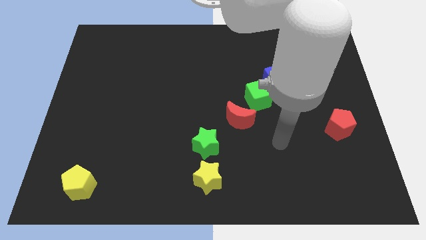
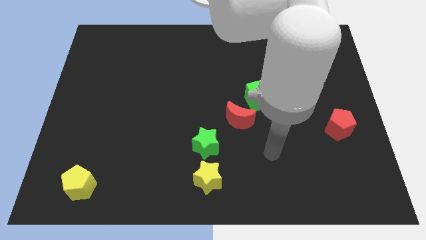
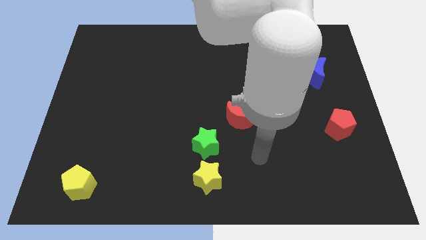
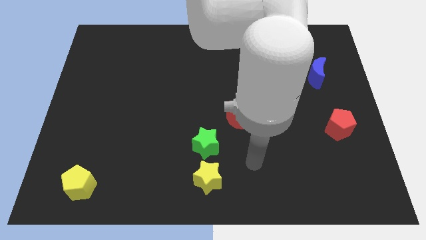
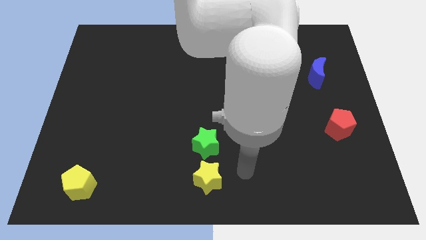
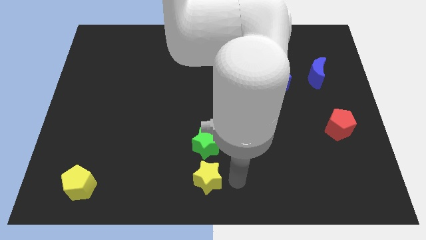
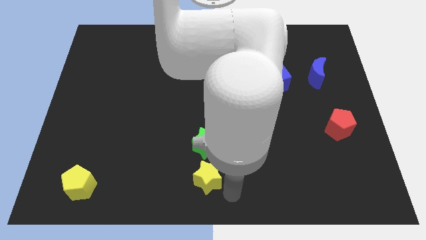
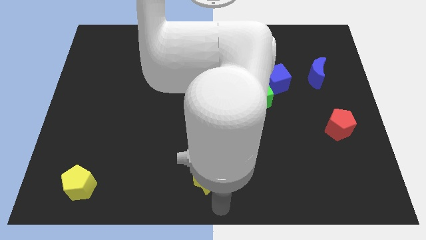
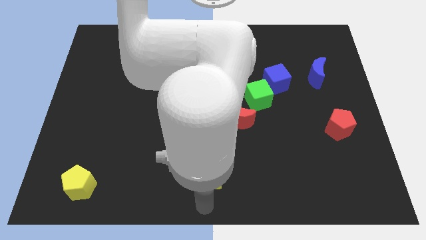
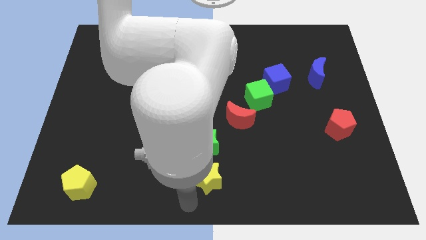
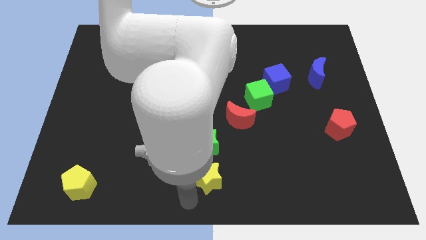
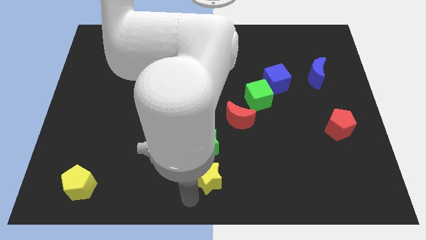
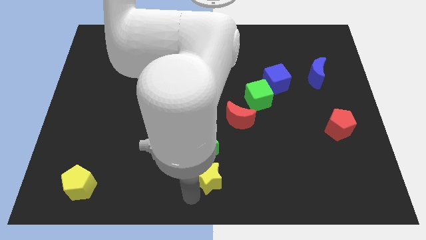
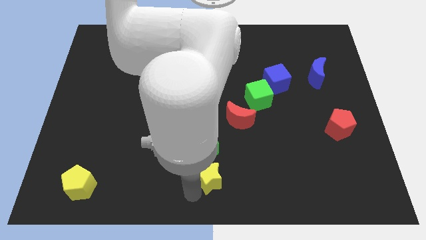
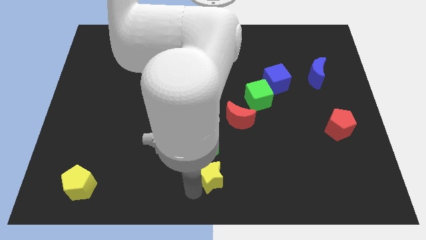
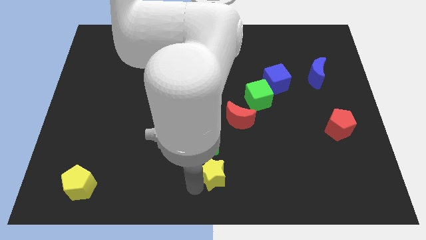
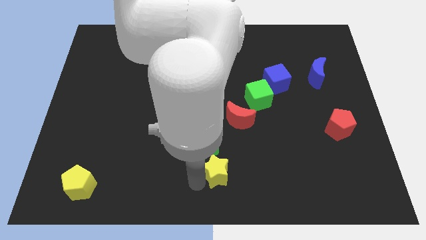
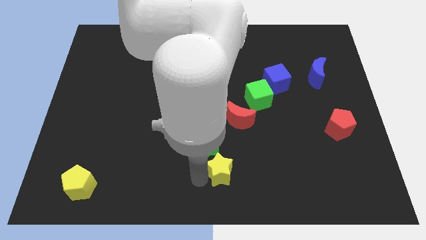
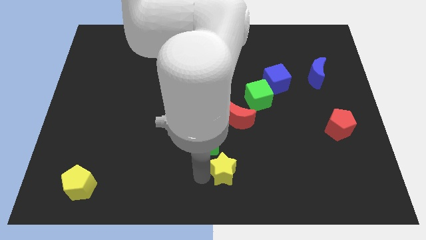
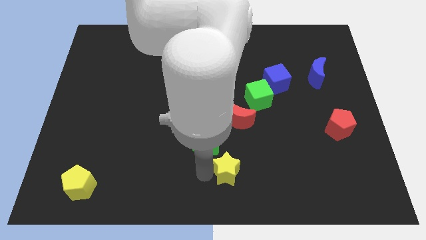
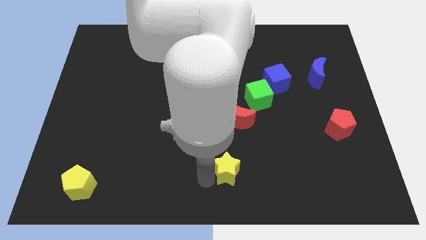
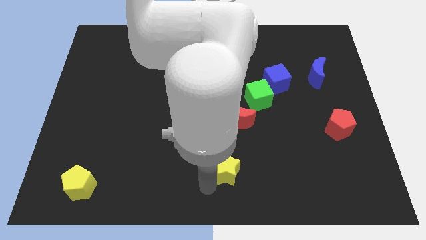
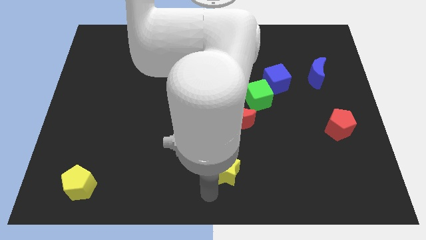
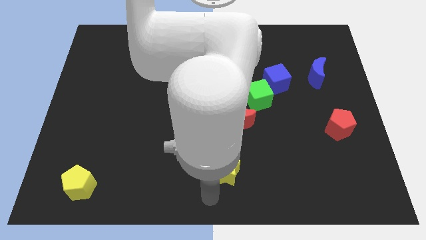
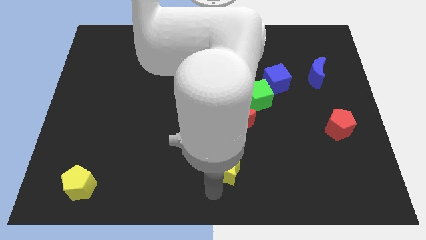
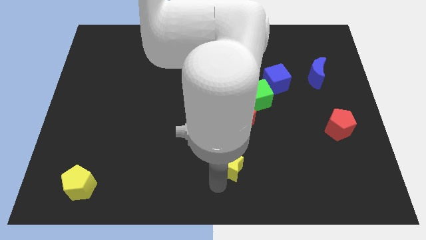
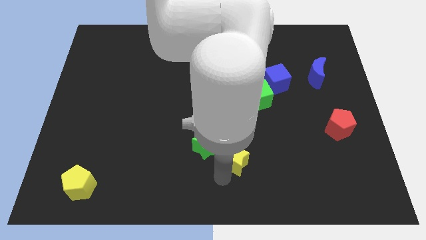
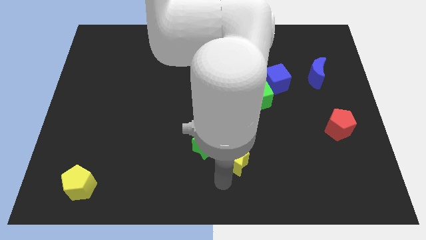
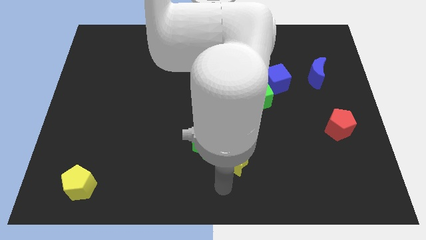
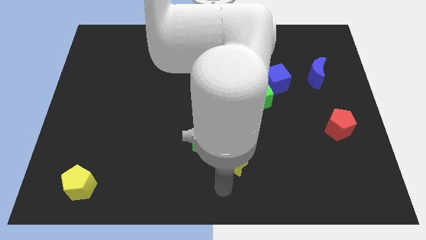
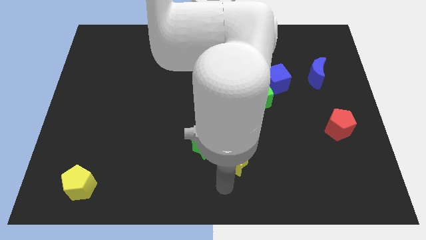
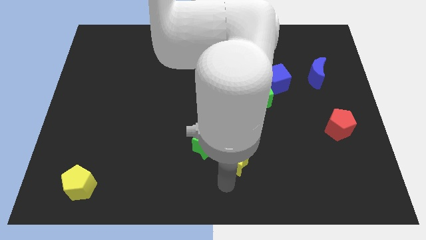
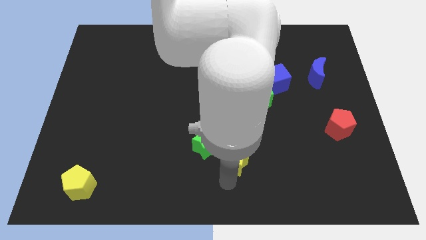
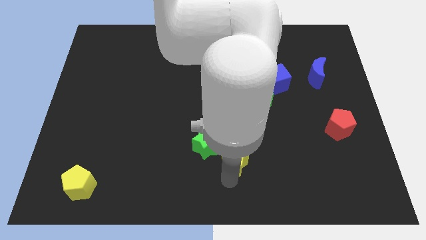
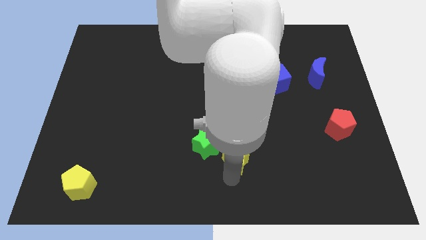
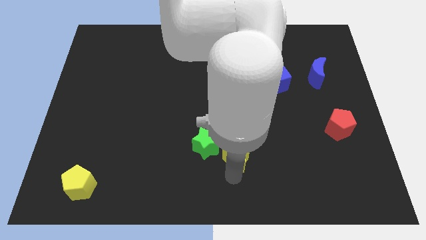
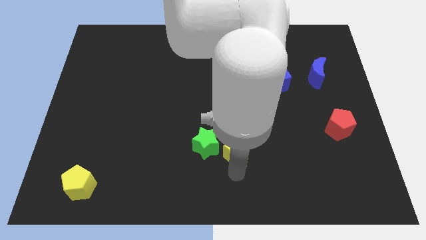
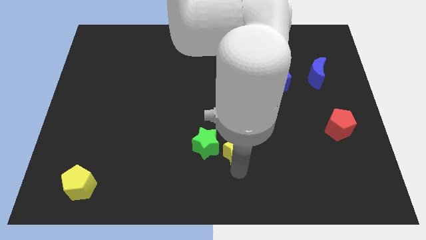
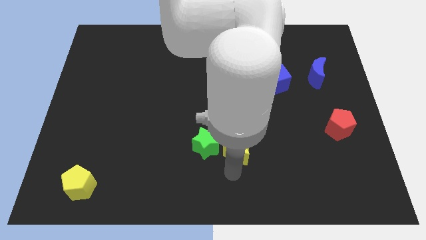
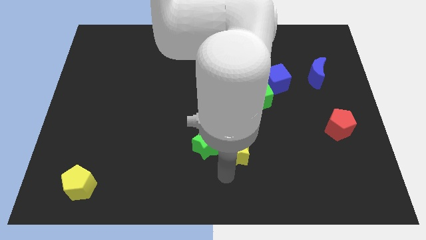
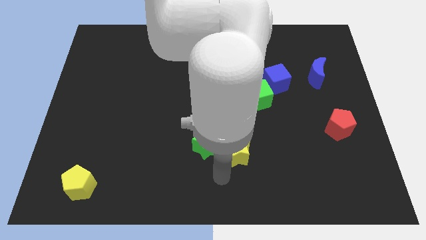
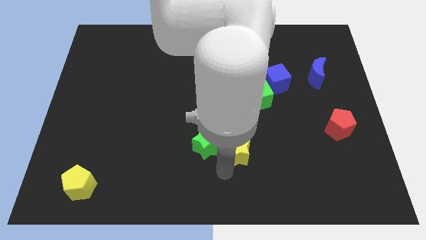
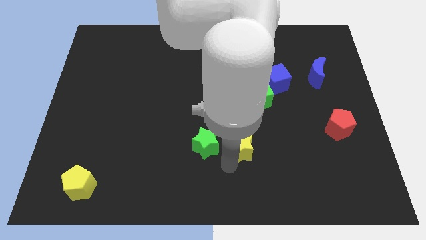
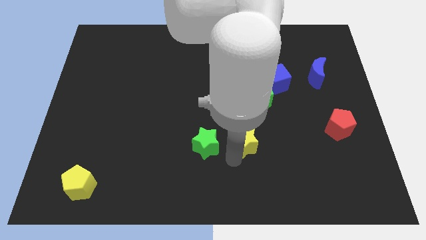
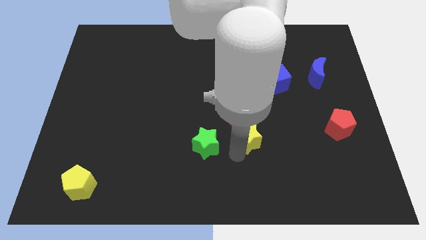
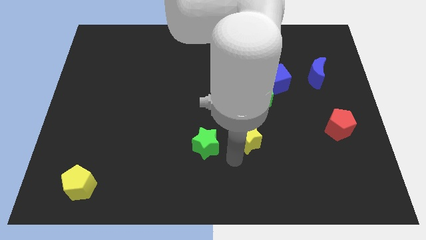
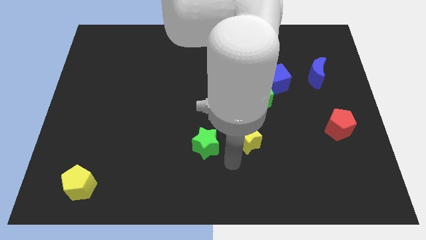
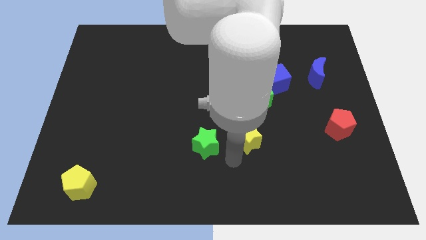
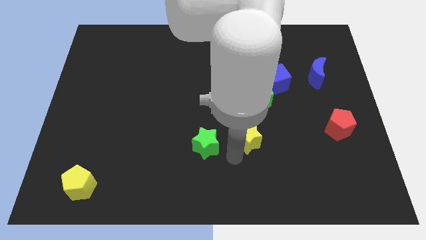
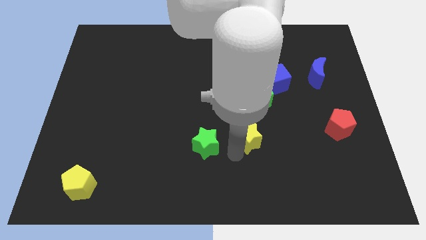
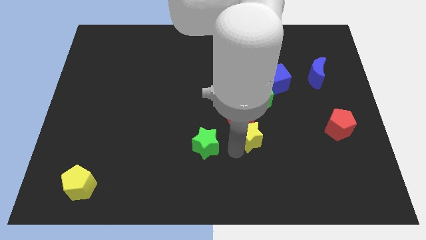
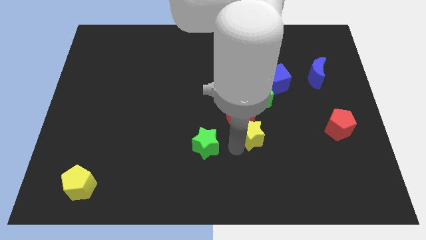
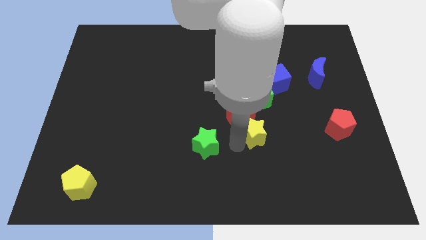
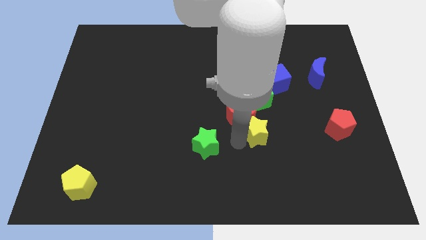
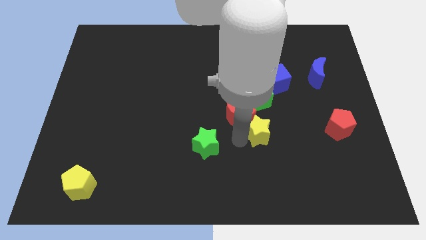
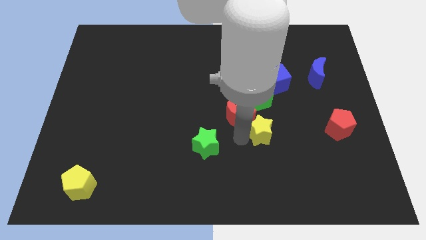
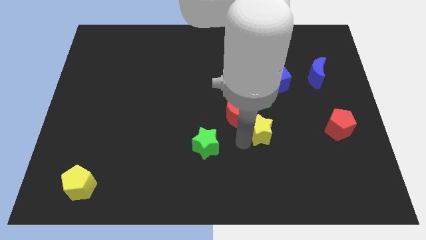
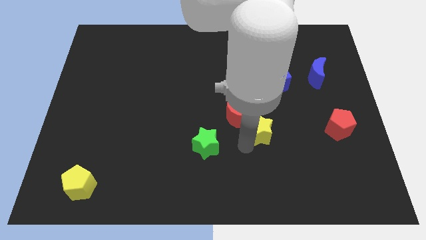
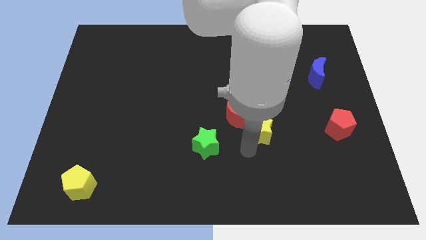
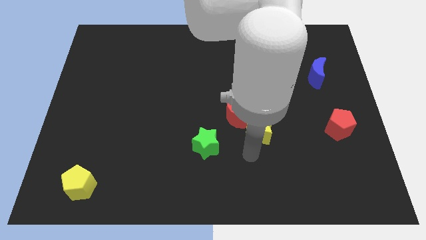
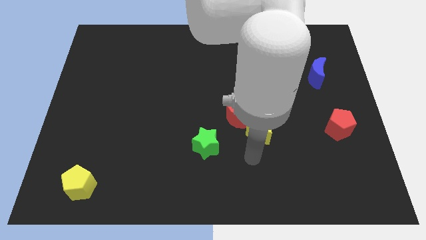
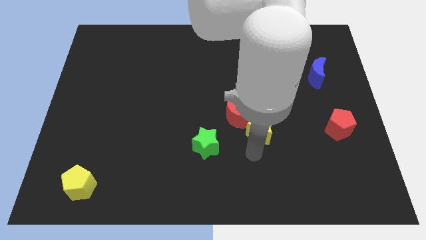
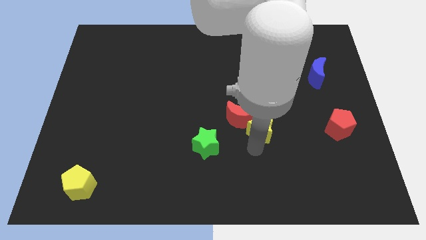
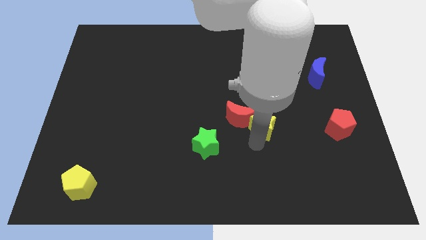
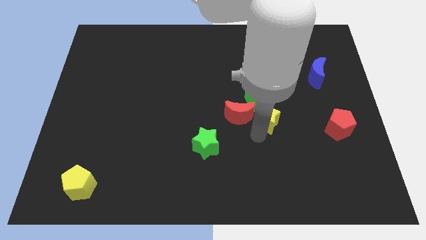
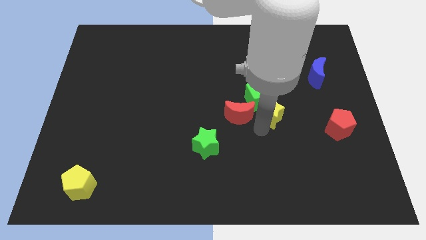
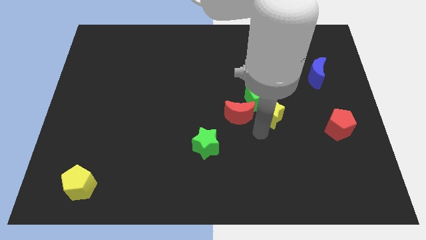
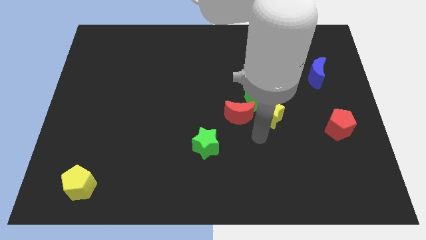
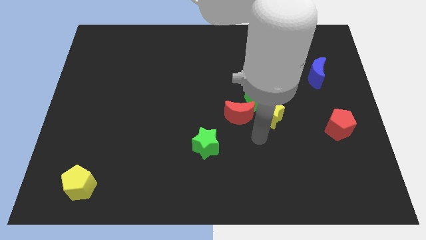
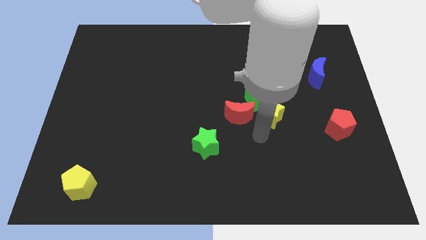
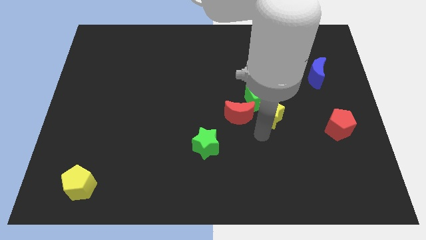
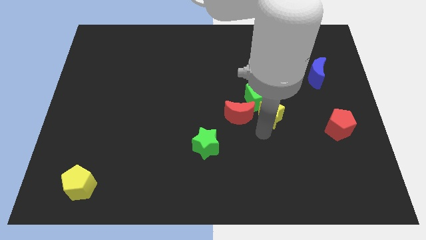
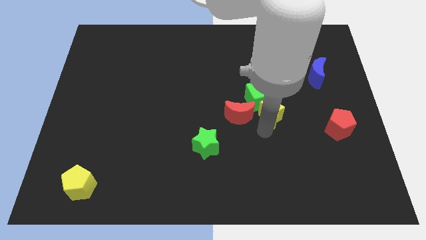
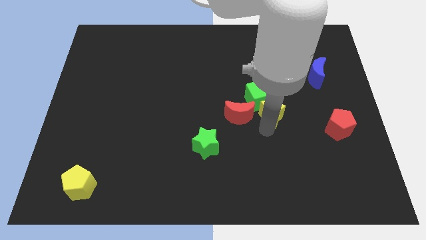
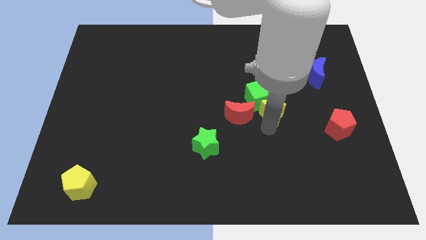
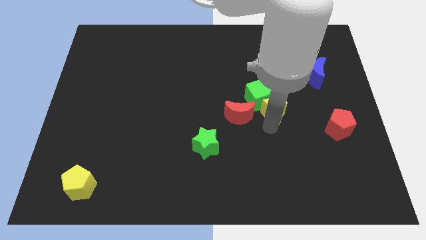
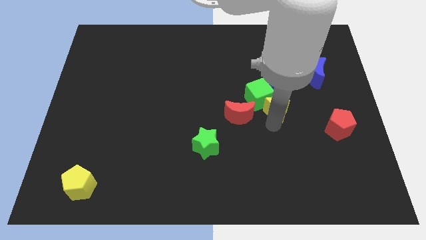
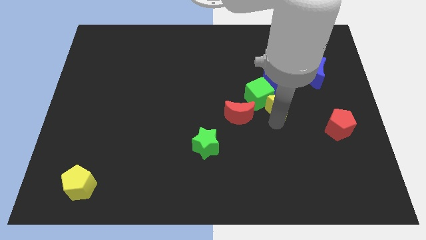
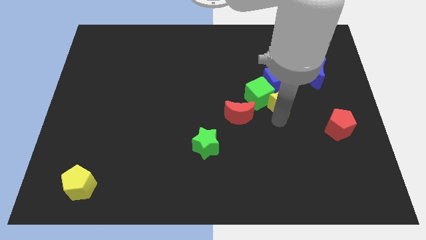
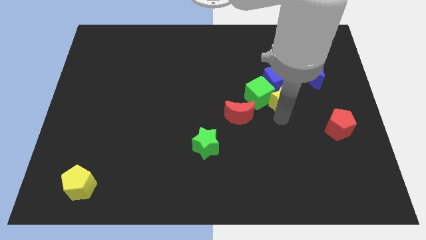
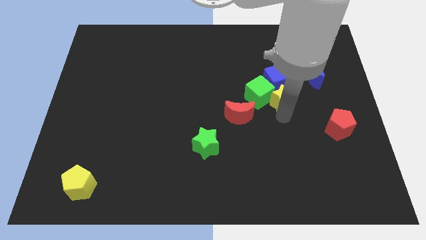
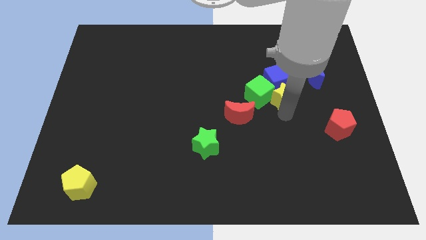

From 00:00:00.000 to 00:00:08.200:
push the yellow star to the blue cube
